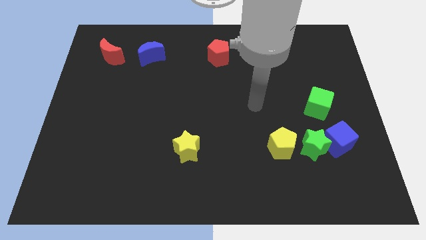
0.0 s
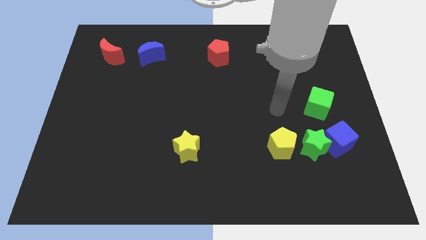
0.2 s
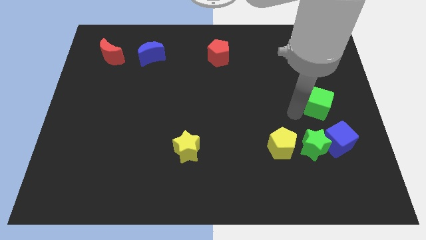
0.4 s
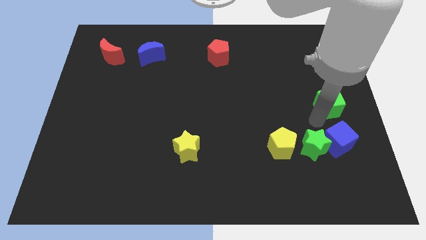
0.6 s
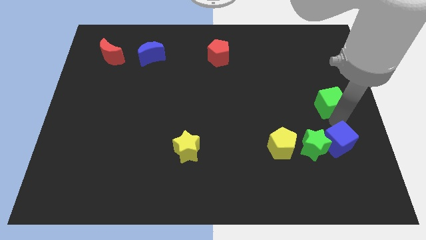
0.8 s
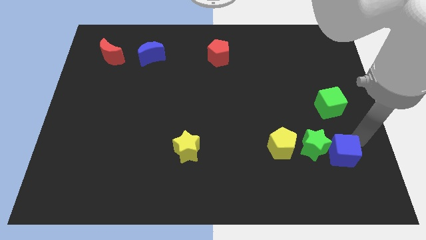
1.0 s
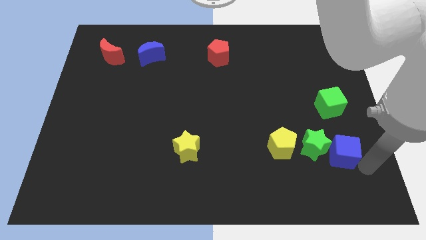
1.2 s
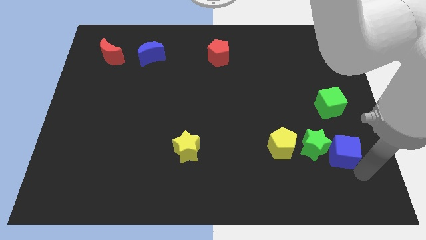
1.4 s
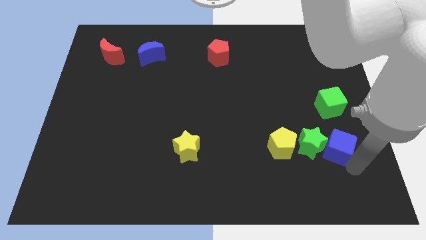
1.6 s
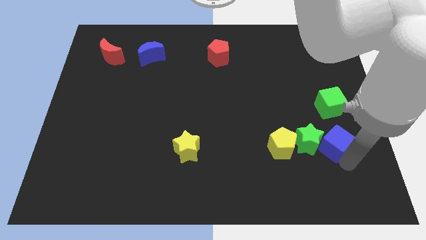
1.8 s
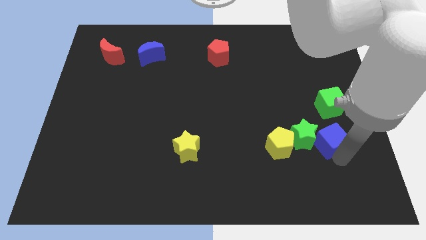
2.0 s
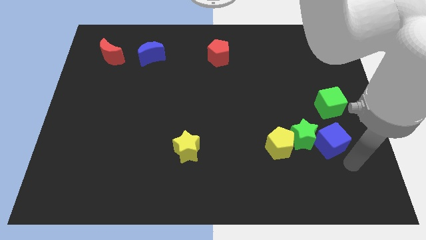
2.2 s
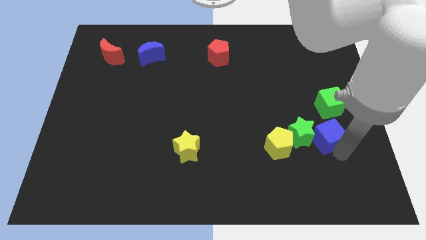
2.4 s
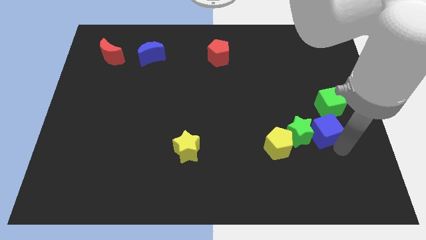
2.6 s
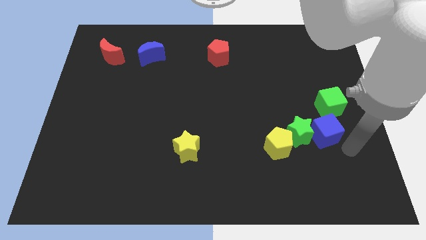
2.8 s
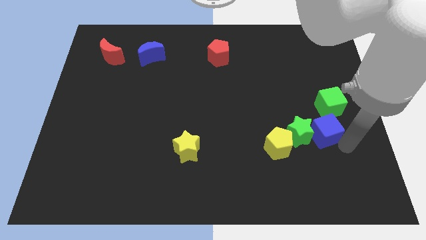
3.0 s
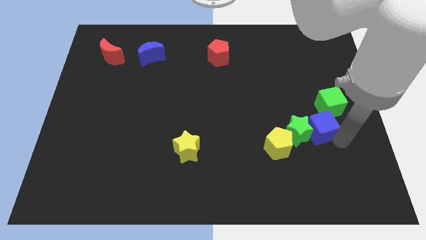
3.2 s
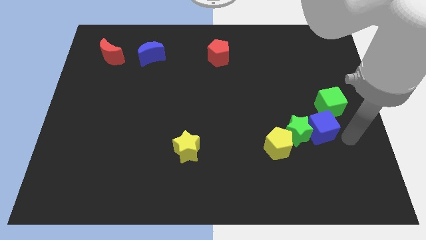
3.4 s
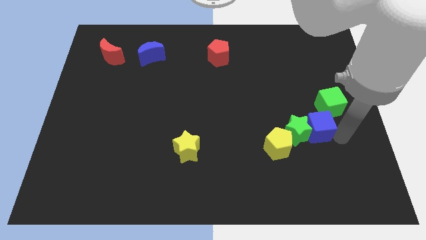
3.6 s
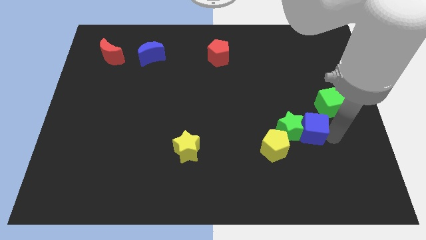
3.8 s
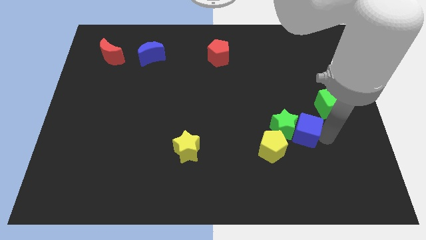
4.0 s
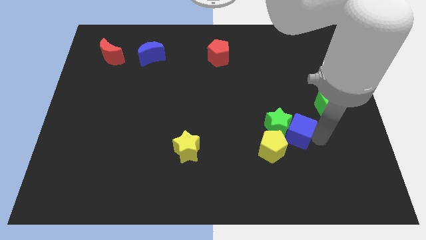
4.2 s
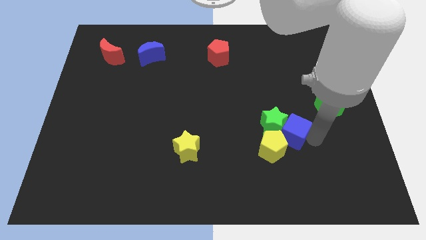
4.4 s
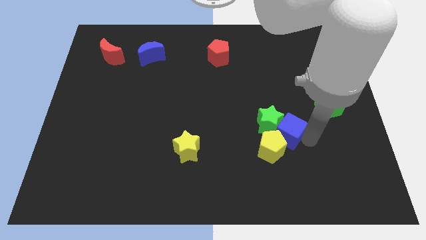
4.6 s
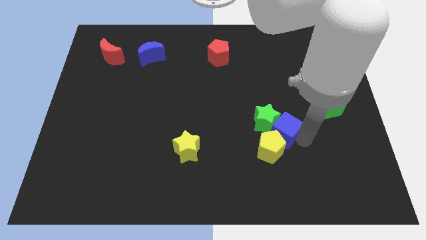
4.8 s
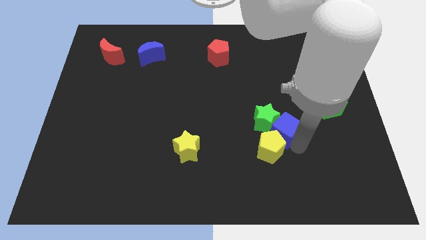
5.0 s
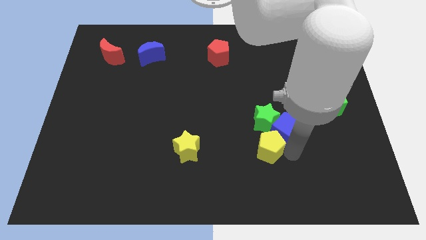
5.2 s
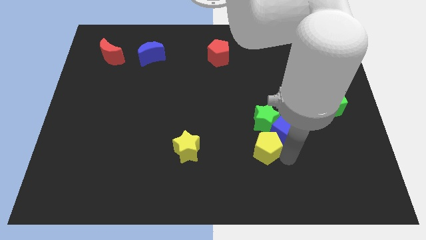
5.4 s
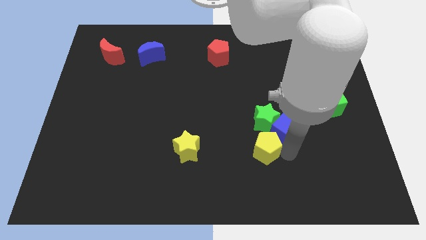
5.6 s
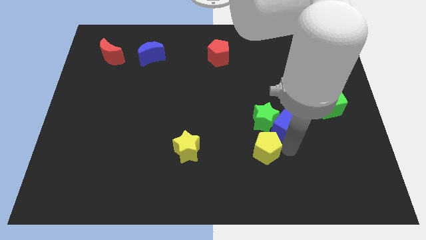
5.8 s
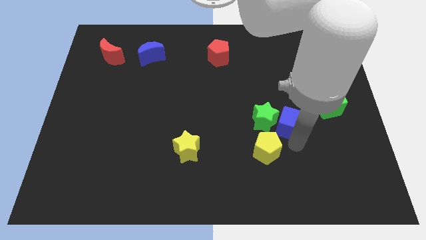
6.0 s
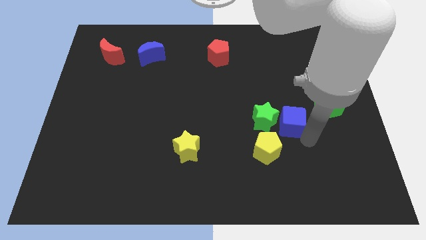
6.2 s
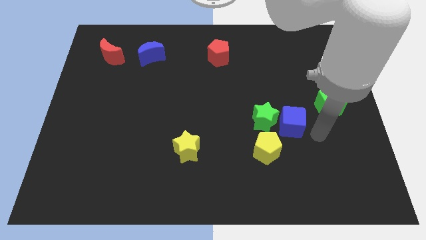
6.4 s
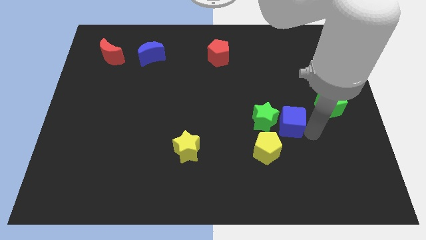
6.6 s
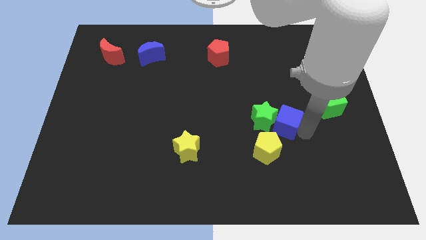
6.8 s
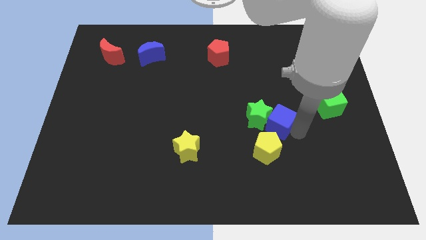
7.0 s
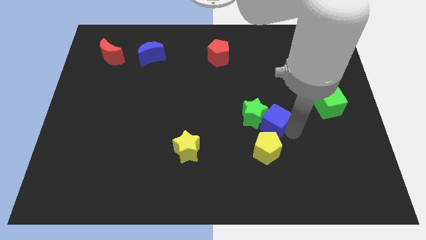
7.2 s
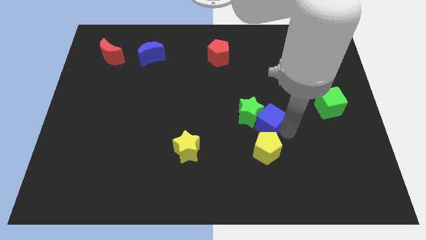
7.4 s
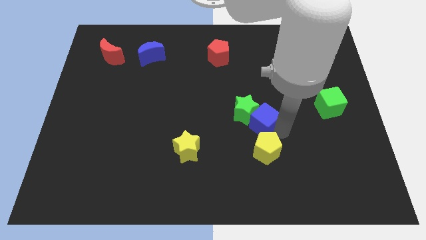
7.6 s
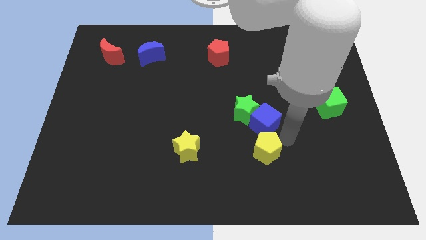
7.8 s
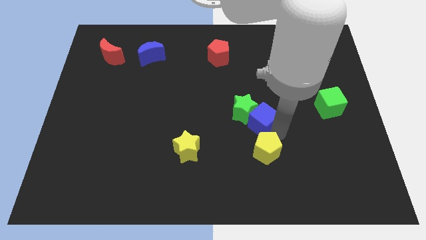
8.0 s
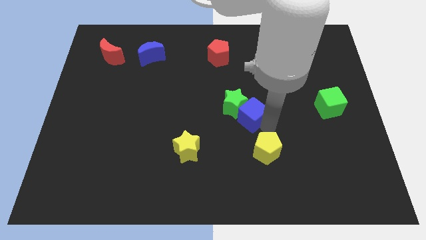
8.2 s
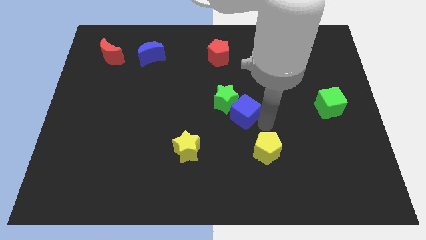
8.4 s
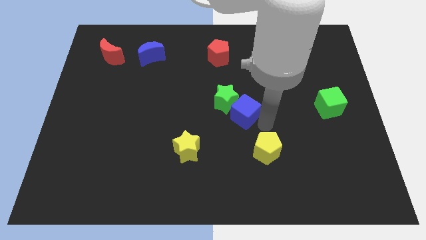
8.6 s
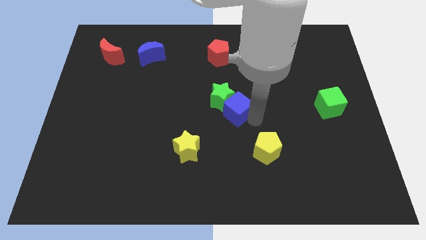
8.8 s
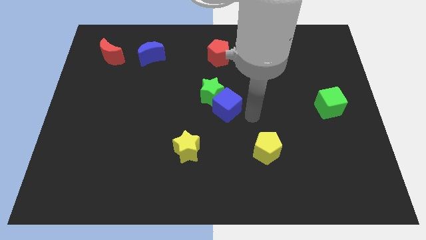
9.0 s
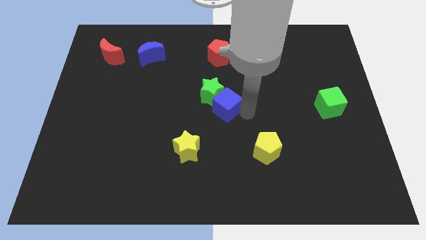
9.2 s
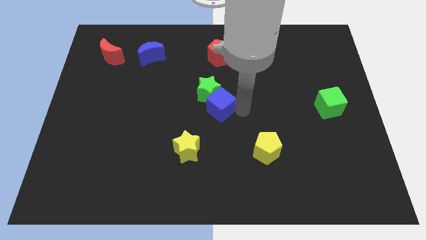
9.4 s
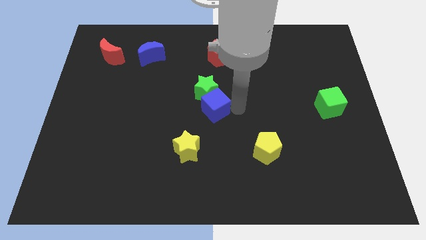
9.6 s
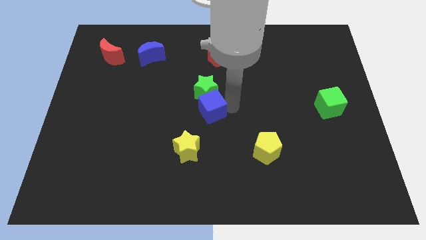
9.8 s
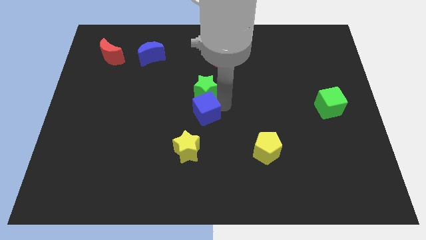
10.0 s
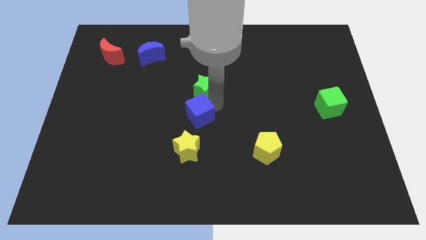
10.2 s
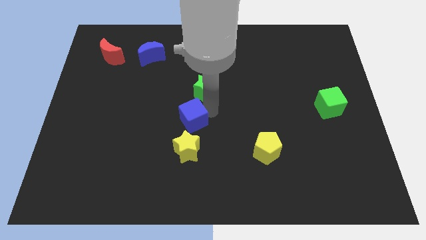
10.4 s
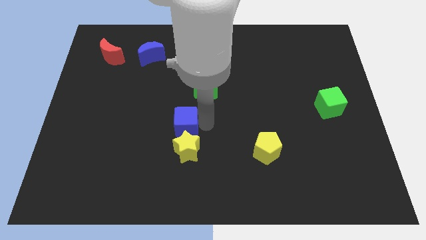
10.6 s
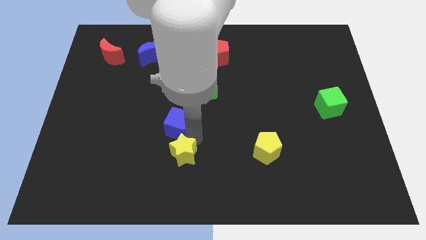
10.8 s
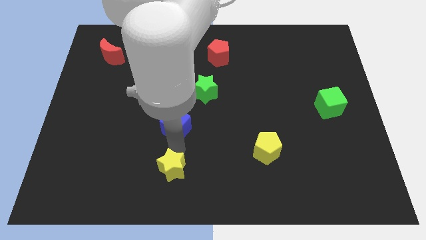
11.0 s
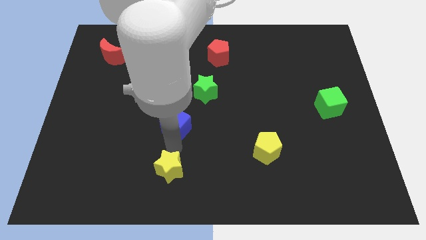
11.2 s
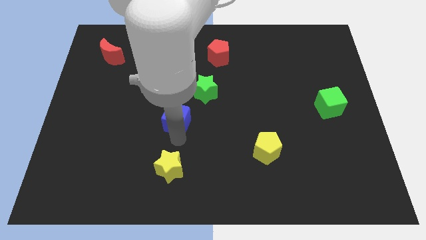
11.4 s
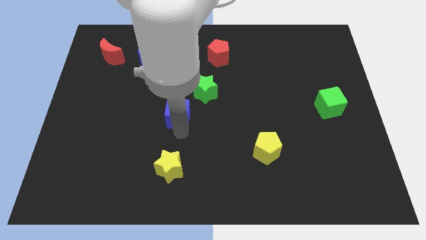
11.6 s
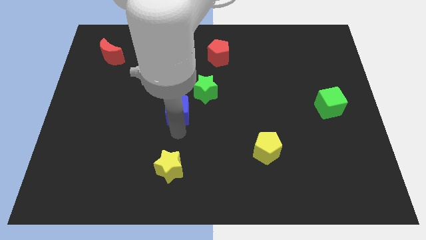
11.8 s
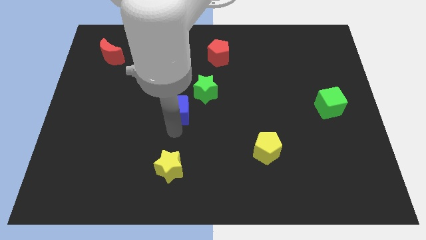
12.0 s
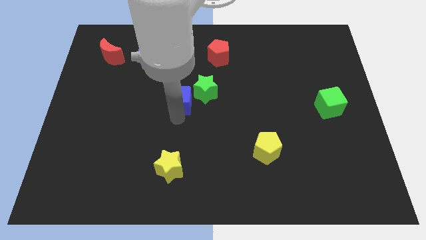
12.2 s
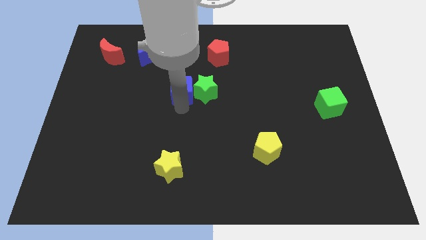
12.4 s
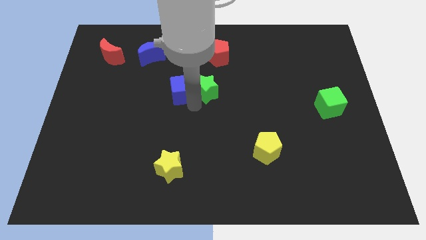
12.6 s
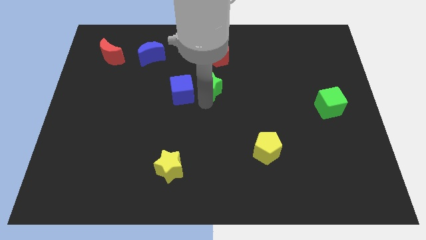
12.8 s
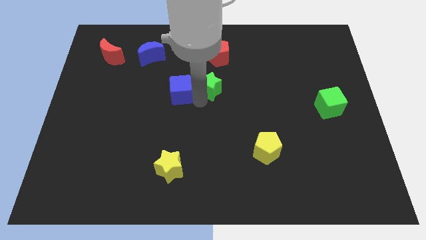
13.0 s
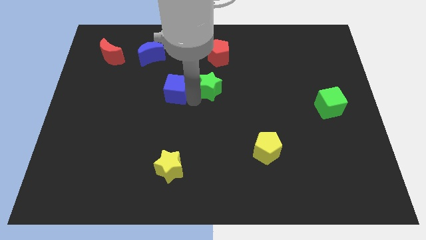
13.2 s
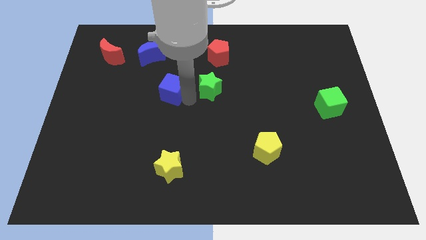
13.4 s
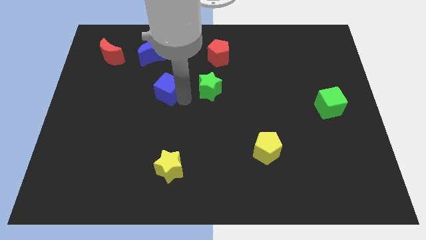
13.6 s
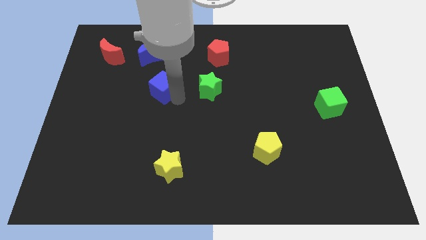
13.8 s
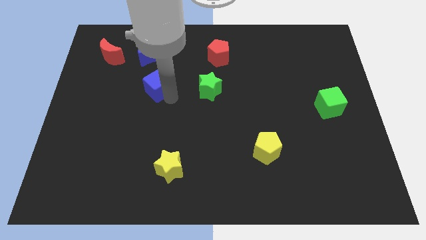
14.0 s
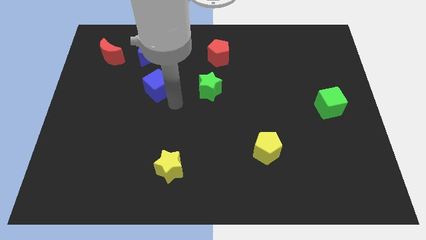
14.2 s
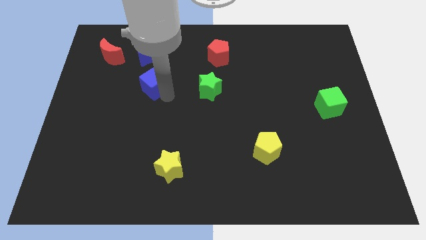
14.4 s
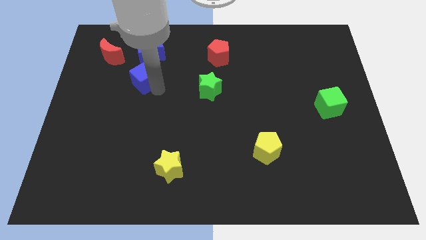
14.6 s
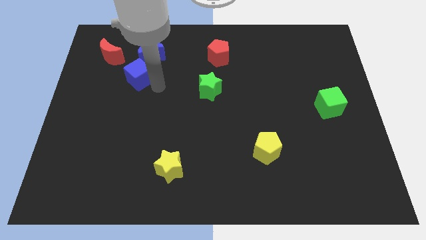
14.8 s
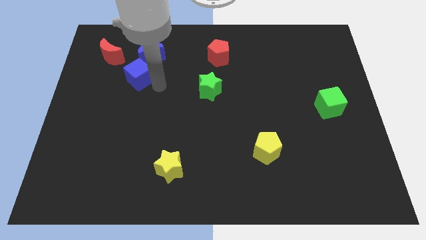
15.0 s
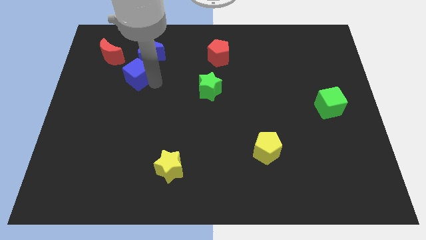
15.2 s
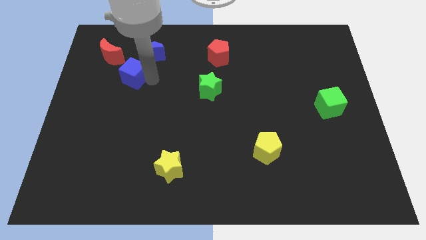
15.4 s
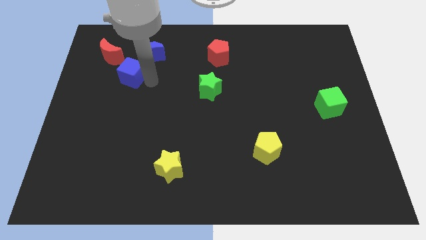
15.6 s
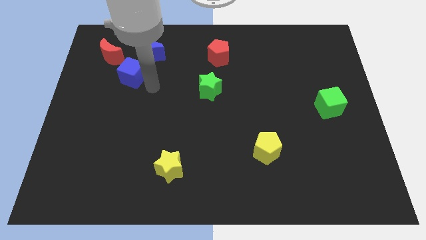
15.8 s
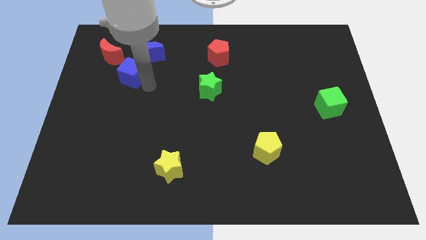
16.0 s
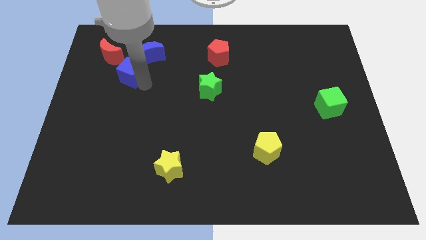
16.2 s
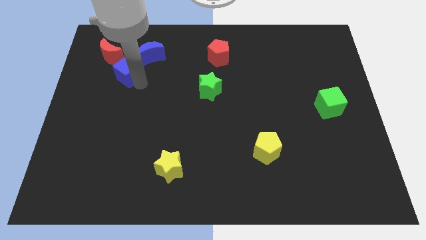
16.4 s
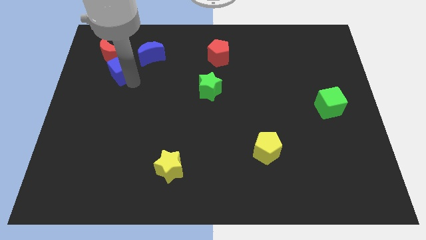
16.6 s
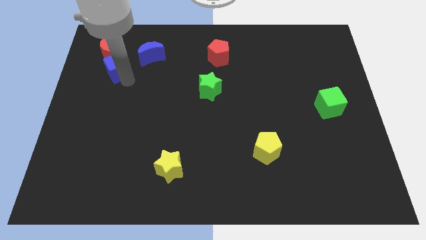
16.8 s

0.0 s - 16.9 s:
push the blue cube to the red moon
